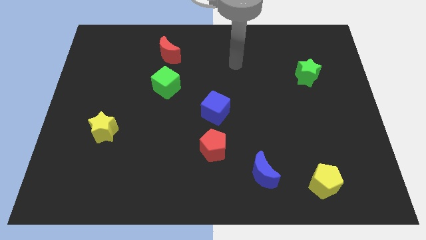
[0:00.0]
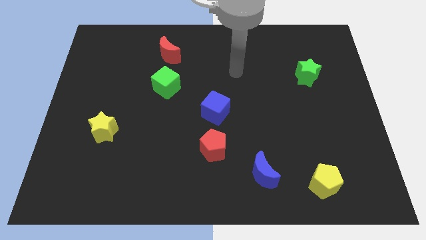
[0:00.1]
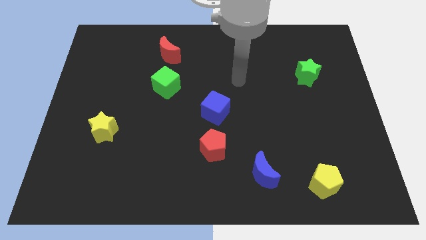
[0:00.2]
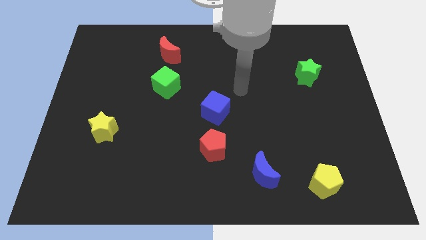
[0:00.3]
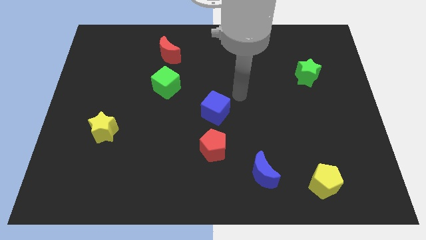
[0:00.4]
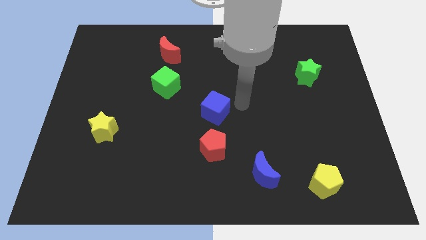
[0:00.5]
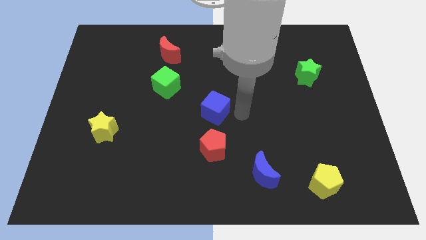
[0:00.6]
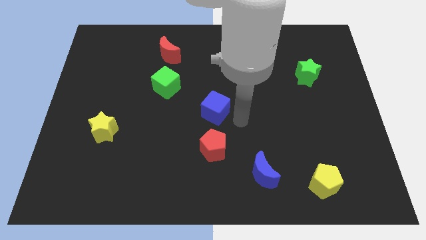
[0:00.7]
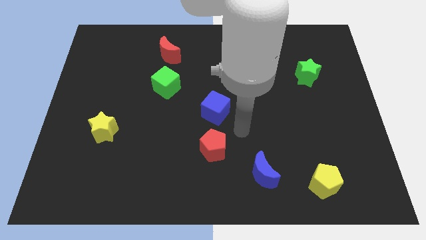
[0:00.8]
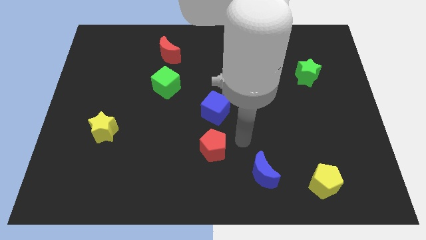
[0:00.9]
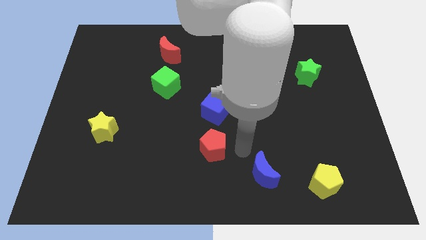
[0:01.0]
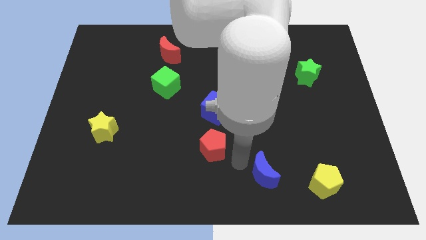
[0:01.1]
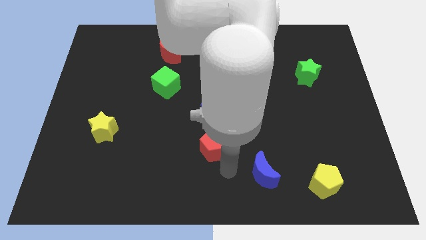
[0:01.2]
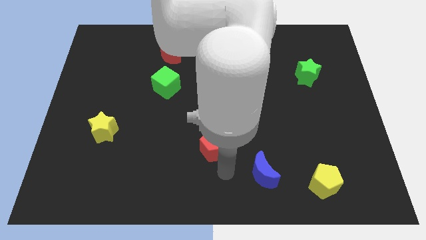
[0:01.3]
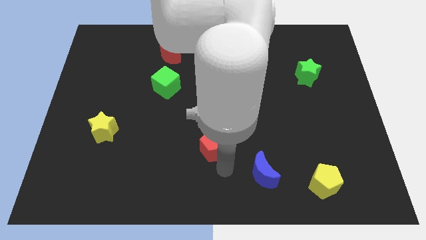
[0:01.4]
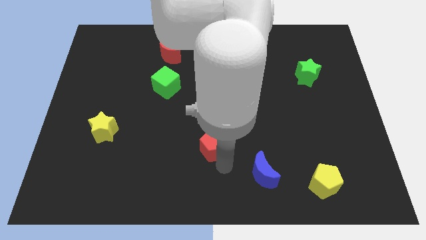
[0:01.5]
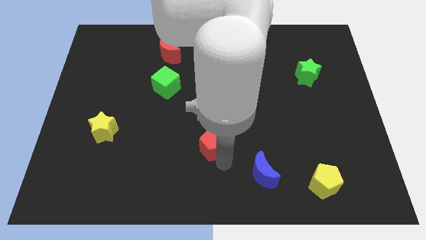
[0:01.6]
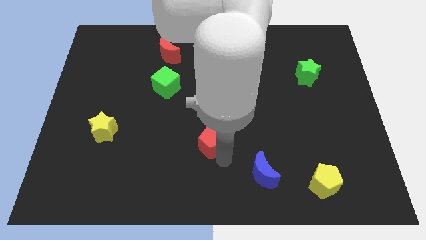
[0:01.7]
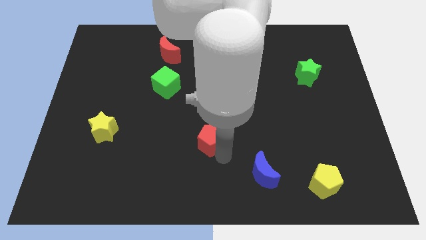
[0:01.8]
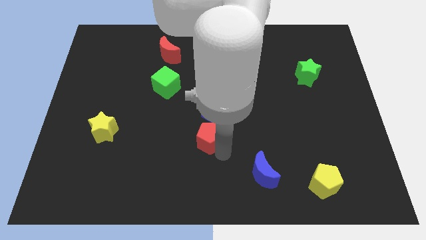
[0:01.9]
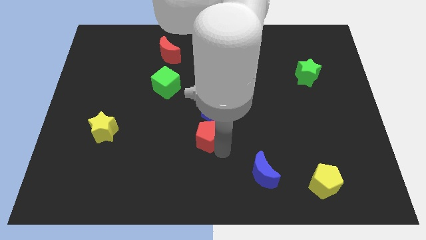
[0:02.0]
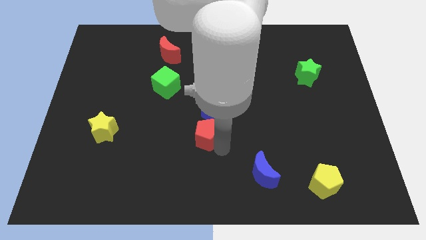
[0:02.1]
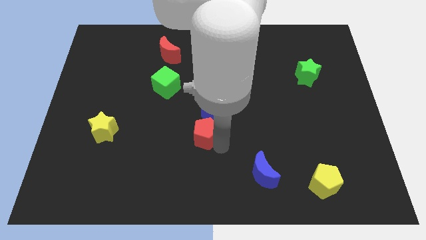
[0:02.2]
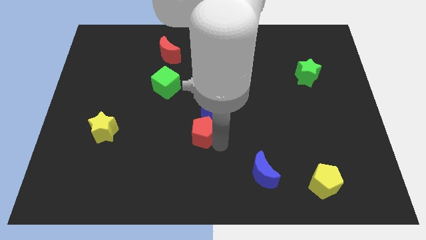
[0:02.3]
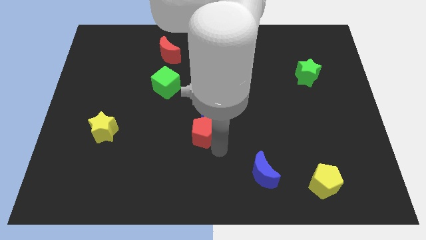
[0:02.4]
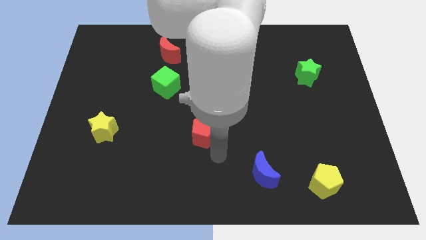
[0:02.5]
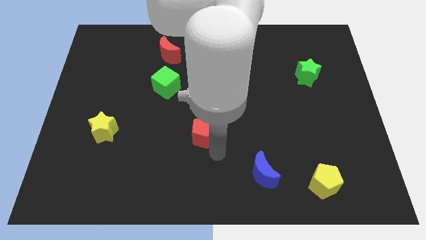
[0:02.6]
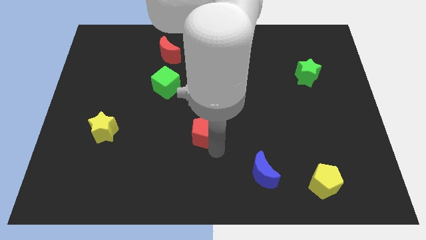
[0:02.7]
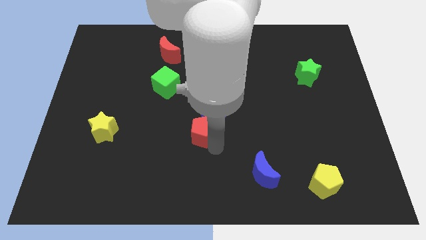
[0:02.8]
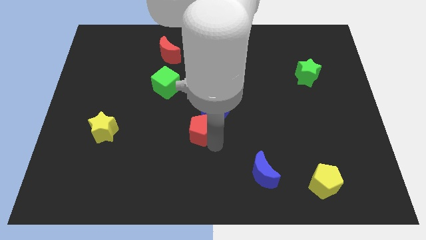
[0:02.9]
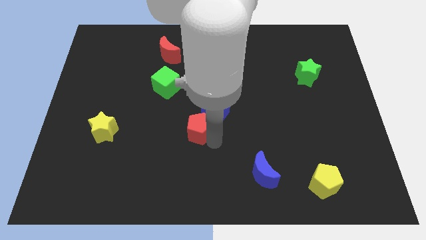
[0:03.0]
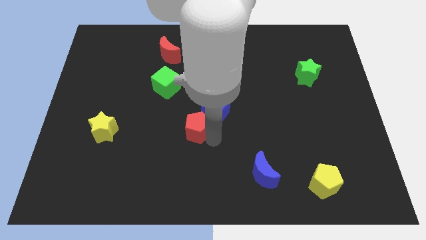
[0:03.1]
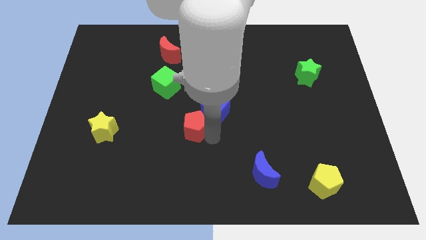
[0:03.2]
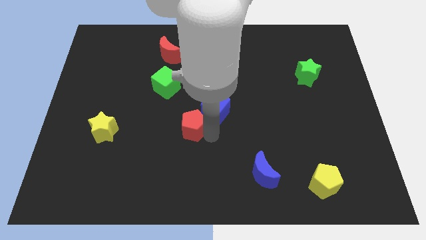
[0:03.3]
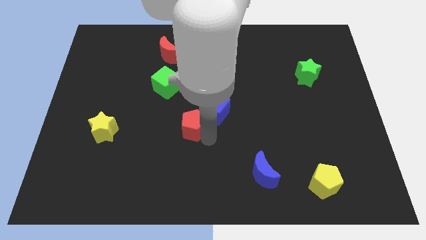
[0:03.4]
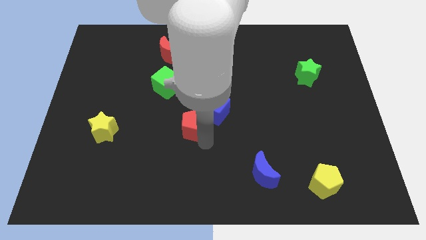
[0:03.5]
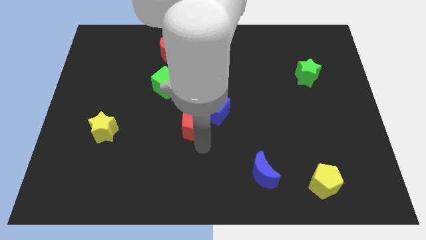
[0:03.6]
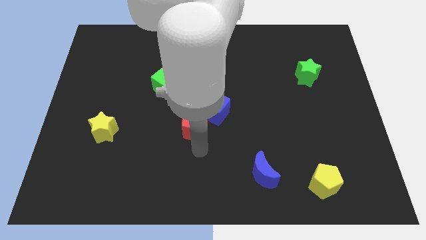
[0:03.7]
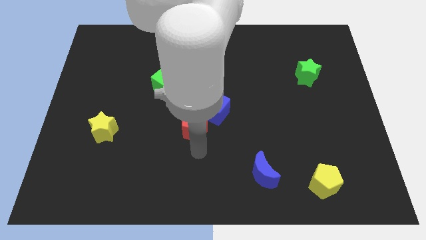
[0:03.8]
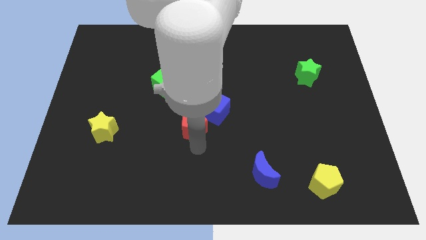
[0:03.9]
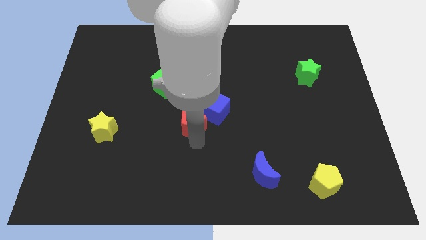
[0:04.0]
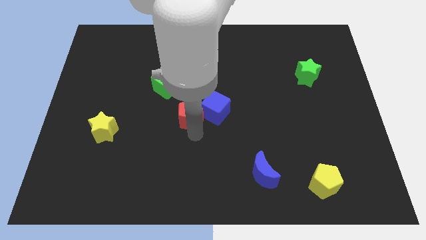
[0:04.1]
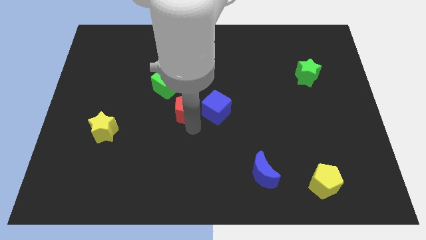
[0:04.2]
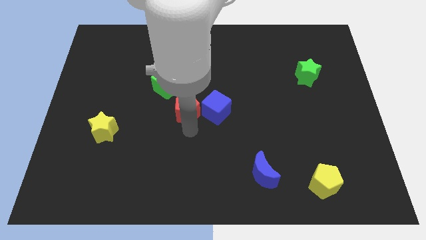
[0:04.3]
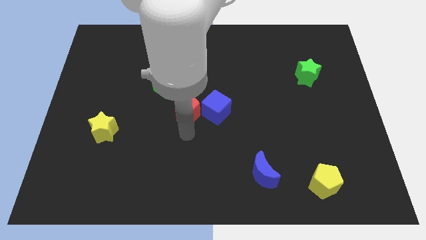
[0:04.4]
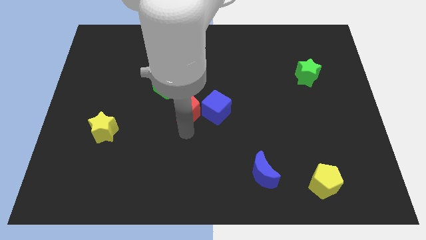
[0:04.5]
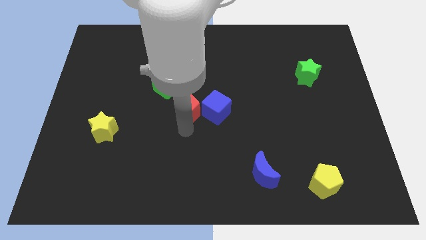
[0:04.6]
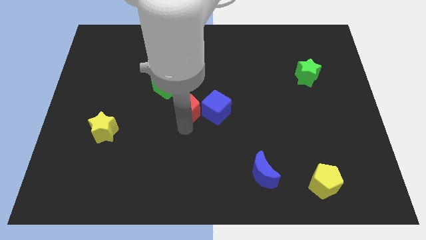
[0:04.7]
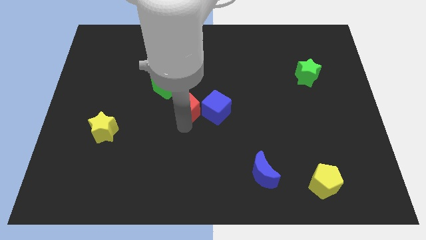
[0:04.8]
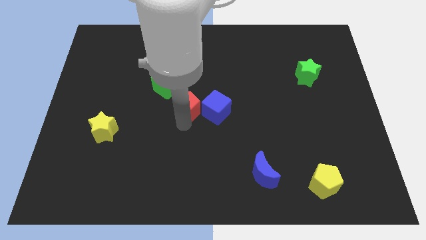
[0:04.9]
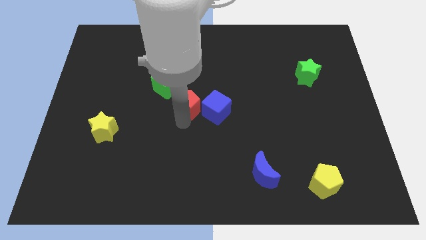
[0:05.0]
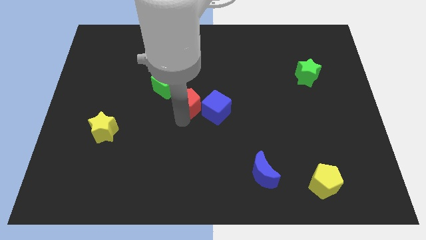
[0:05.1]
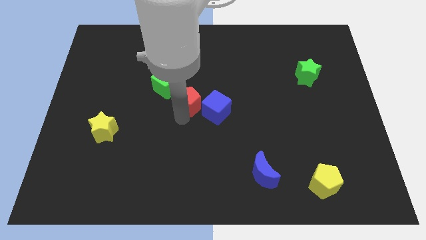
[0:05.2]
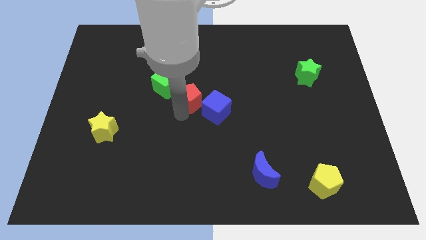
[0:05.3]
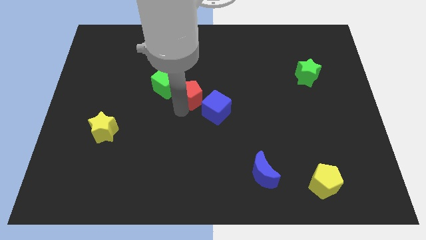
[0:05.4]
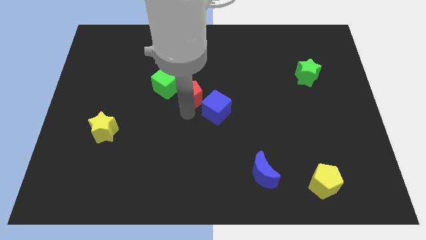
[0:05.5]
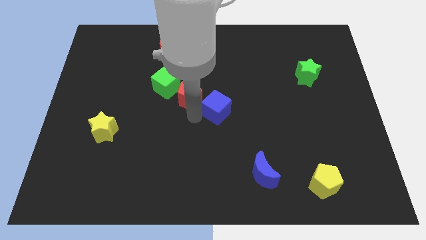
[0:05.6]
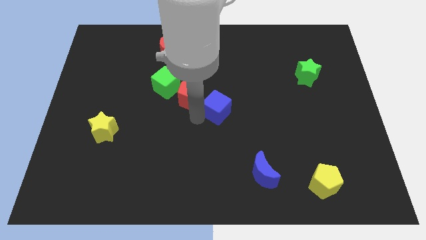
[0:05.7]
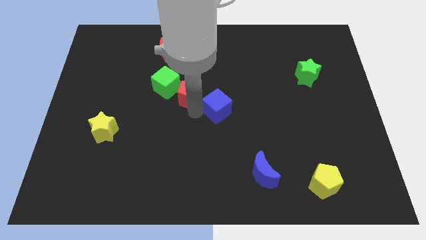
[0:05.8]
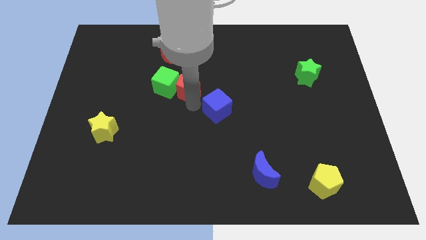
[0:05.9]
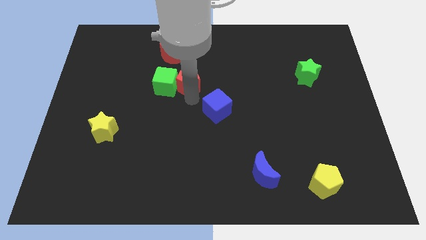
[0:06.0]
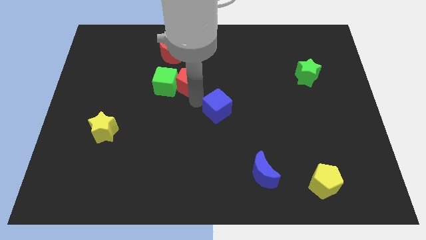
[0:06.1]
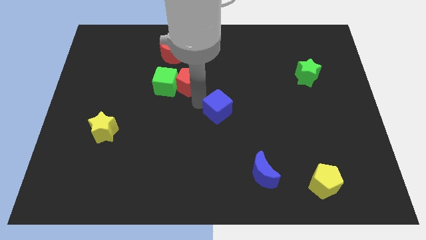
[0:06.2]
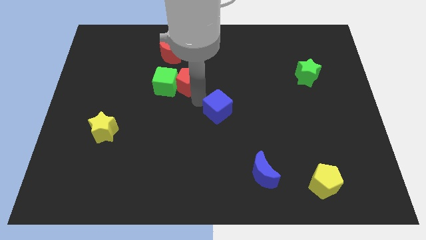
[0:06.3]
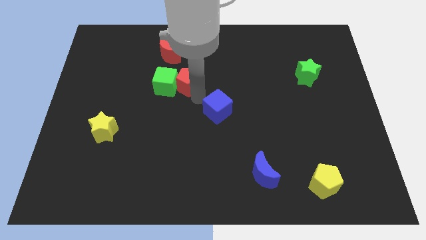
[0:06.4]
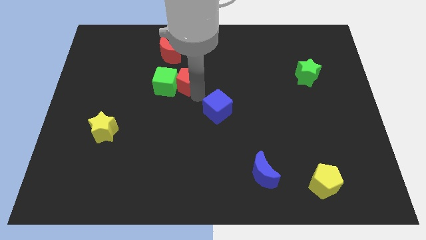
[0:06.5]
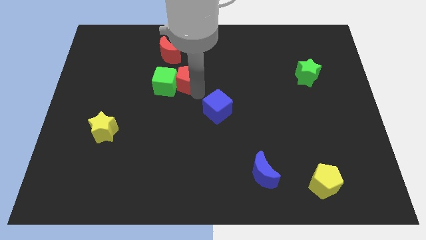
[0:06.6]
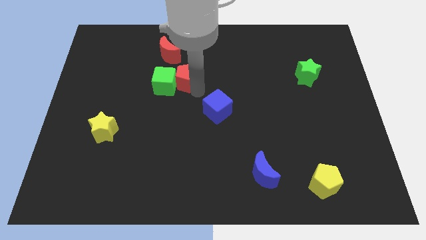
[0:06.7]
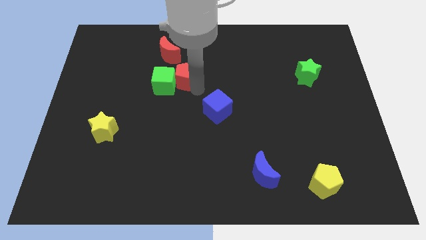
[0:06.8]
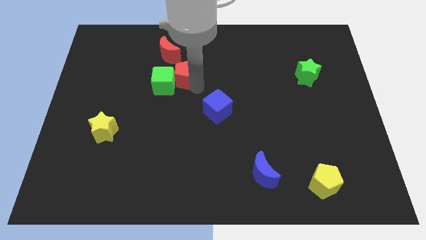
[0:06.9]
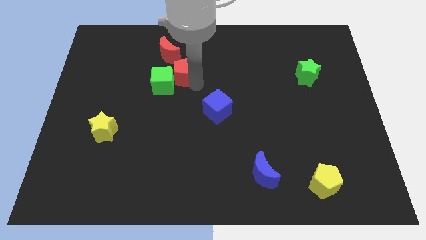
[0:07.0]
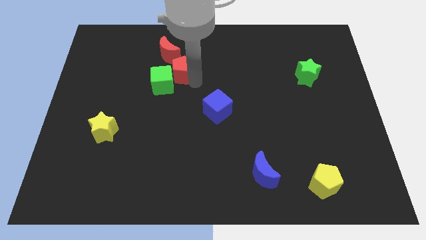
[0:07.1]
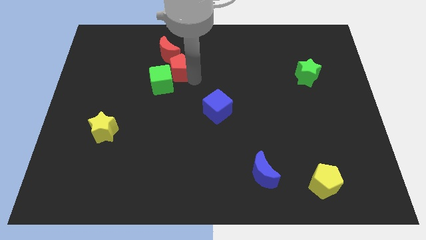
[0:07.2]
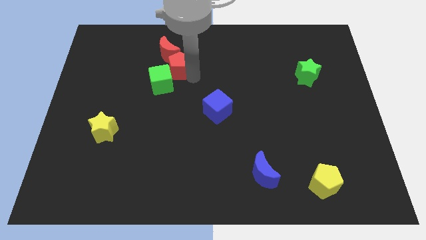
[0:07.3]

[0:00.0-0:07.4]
slide the red pentagon next to the red moon
